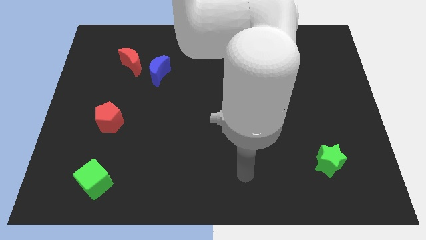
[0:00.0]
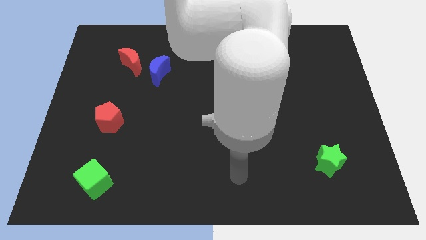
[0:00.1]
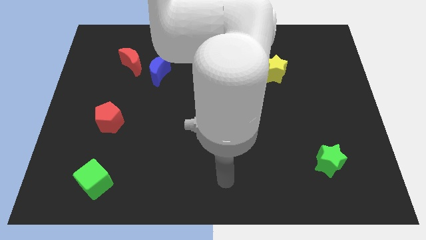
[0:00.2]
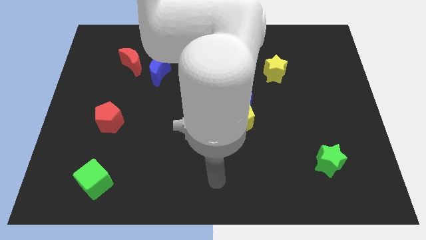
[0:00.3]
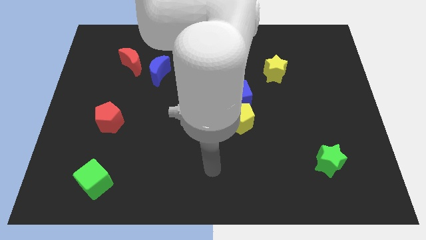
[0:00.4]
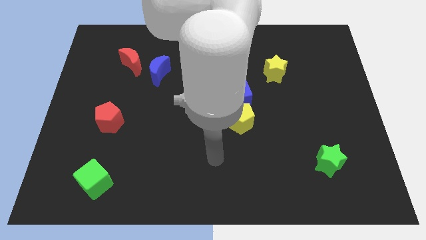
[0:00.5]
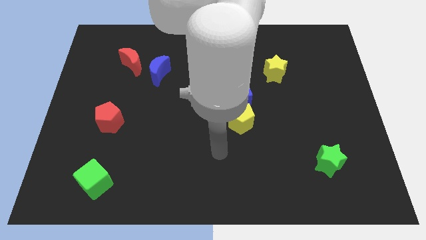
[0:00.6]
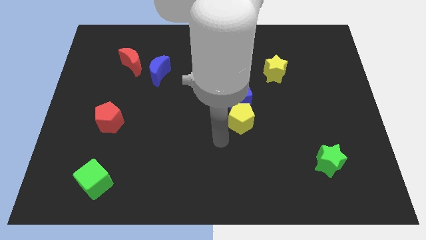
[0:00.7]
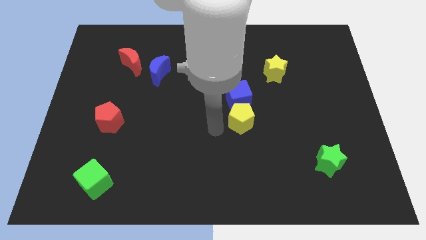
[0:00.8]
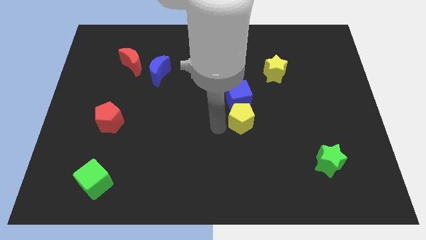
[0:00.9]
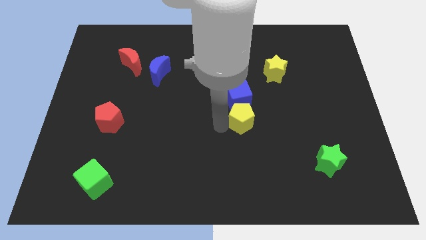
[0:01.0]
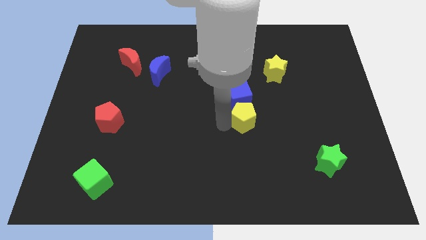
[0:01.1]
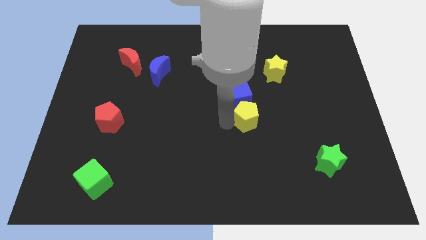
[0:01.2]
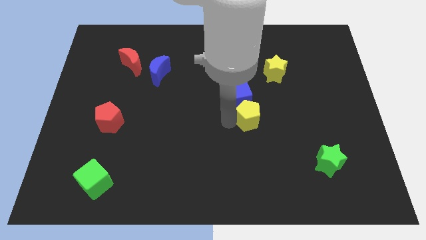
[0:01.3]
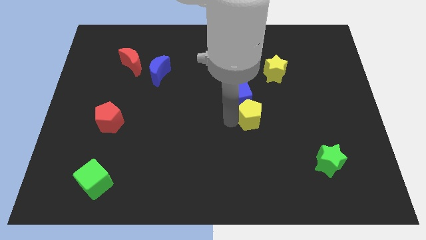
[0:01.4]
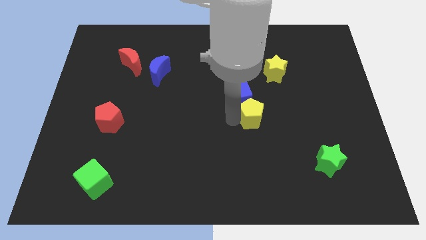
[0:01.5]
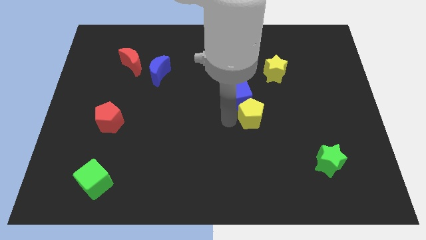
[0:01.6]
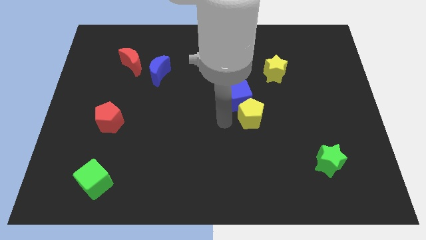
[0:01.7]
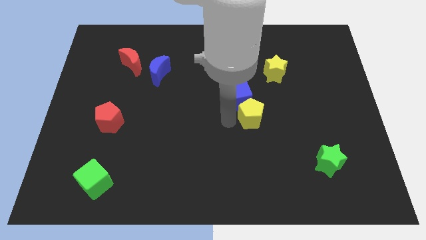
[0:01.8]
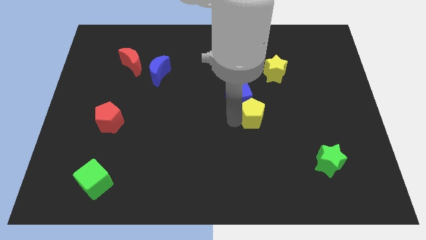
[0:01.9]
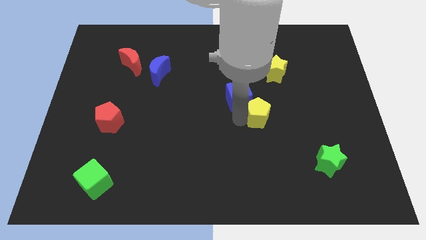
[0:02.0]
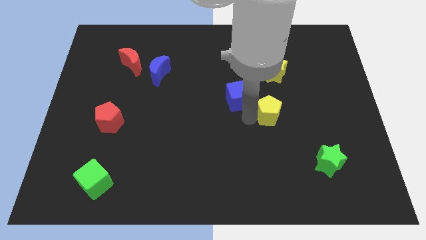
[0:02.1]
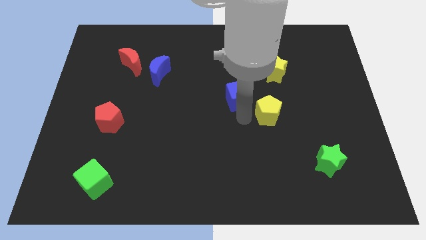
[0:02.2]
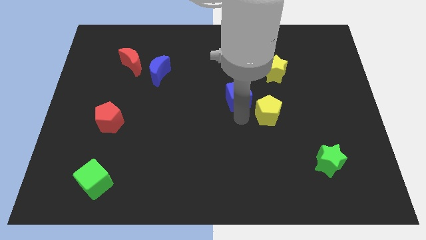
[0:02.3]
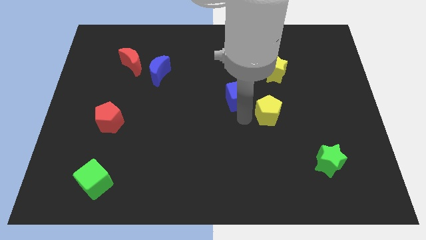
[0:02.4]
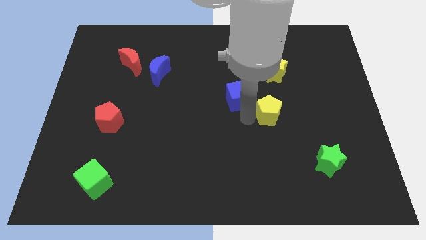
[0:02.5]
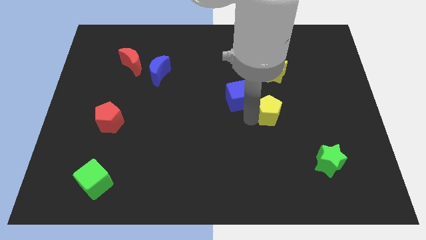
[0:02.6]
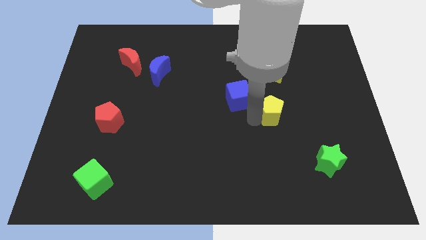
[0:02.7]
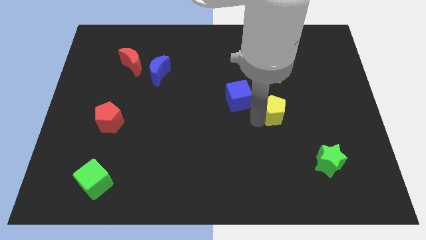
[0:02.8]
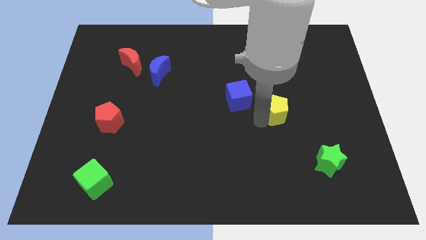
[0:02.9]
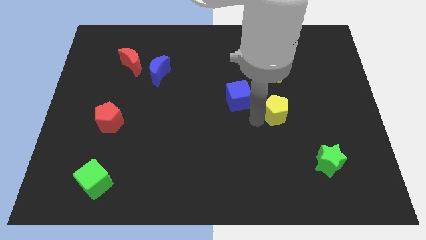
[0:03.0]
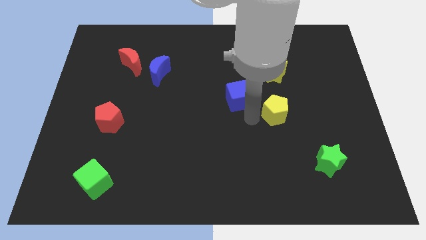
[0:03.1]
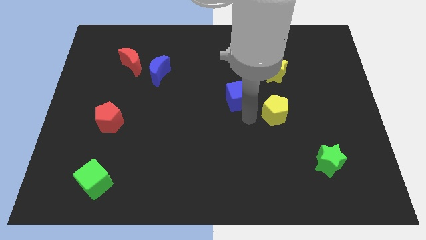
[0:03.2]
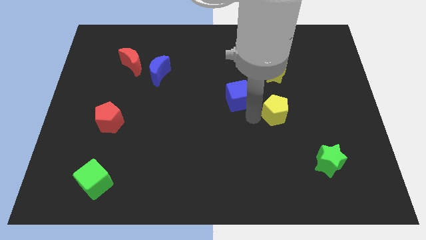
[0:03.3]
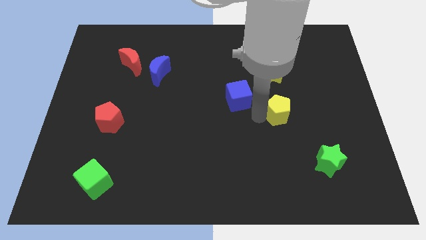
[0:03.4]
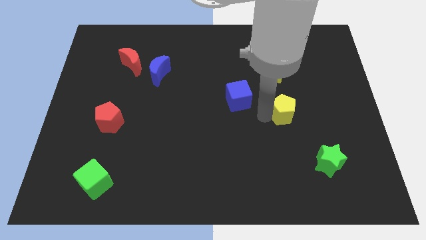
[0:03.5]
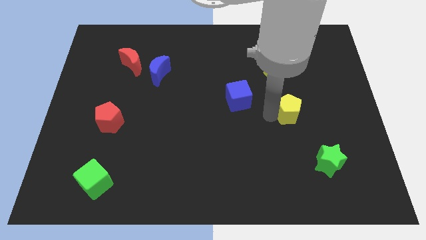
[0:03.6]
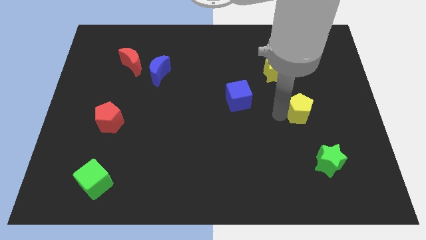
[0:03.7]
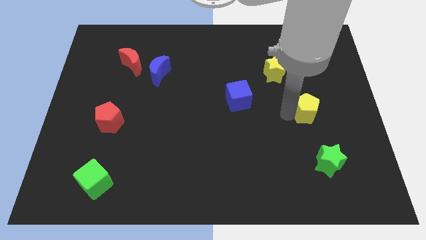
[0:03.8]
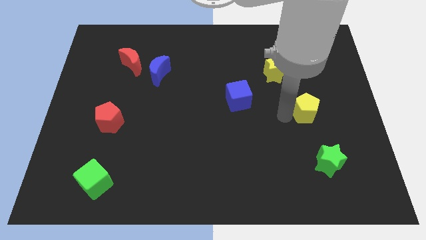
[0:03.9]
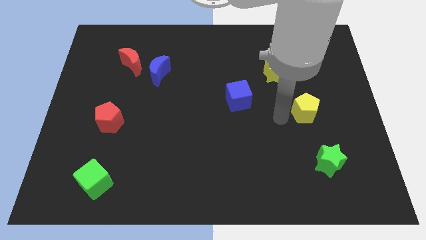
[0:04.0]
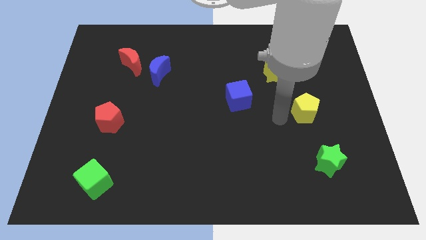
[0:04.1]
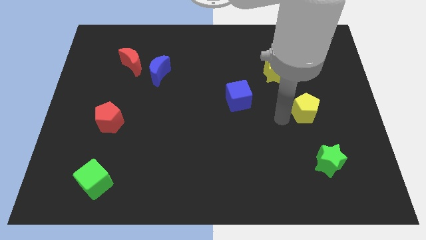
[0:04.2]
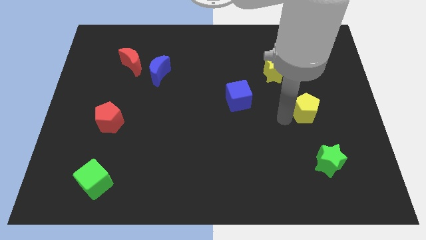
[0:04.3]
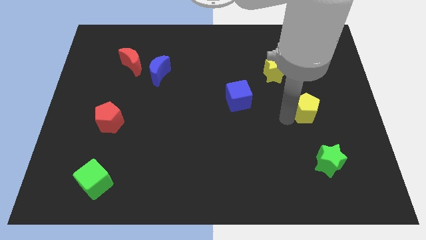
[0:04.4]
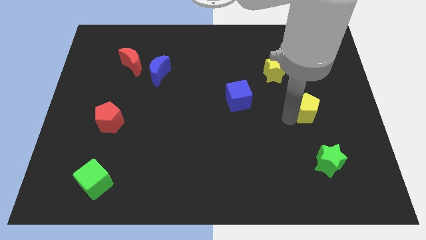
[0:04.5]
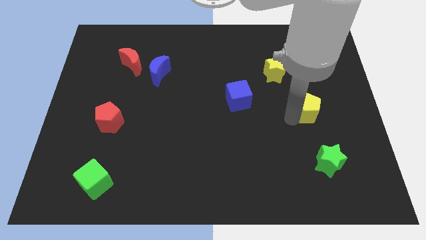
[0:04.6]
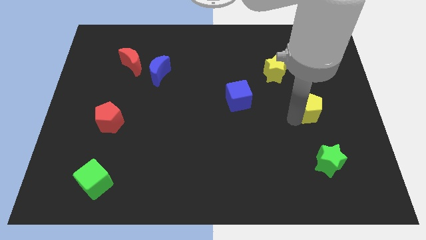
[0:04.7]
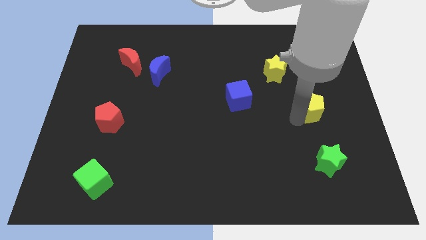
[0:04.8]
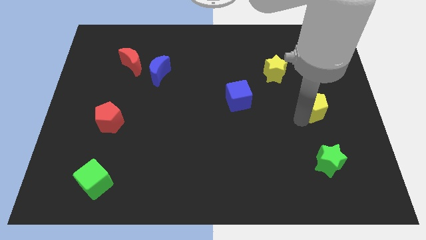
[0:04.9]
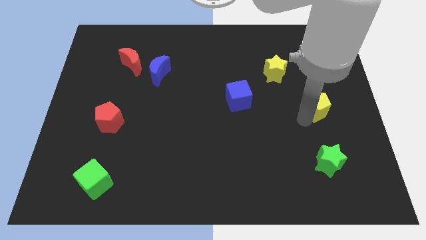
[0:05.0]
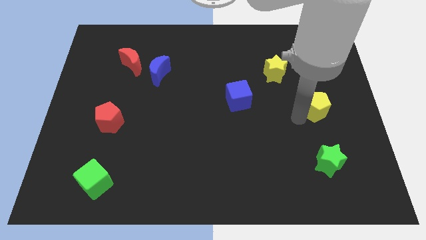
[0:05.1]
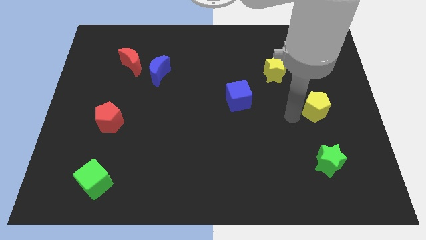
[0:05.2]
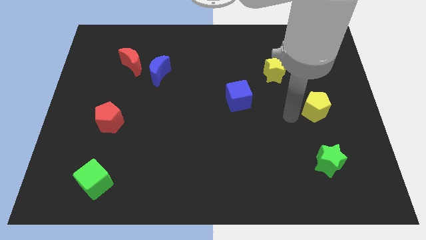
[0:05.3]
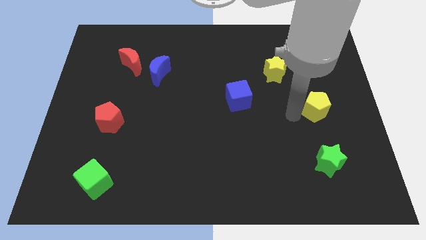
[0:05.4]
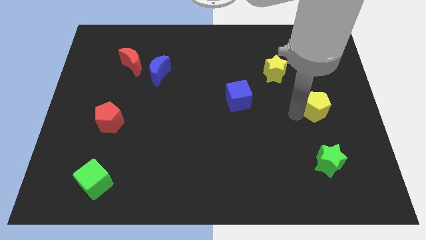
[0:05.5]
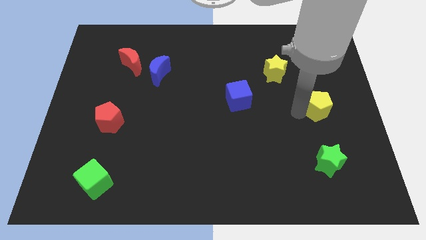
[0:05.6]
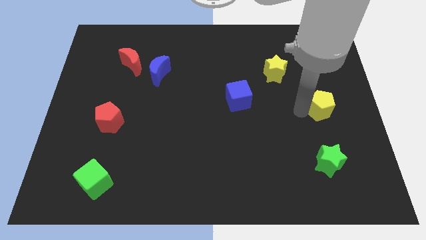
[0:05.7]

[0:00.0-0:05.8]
move the yellow pentagon to the center right
